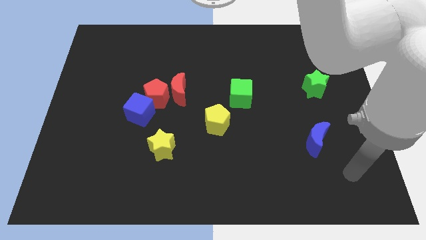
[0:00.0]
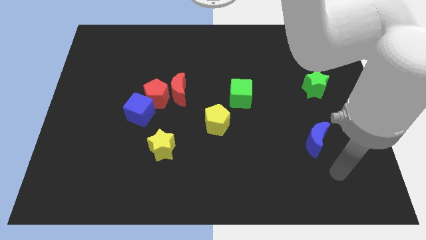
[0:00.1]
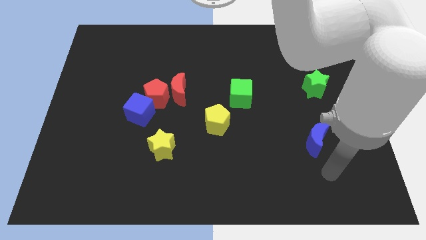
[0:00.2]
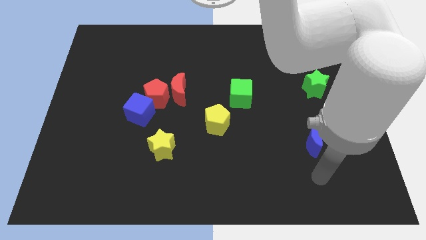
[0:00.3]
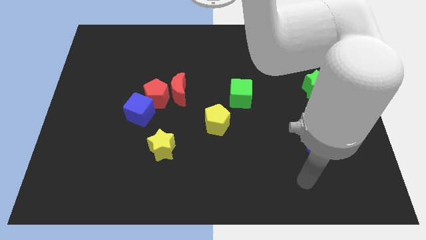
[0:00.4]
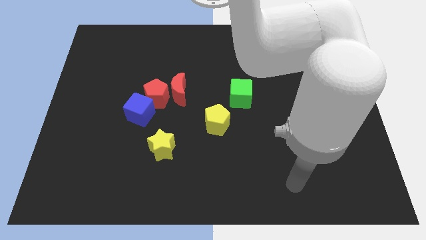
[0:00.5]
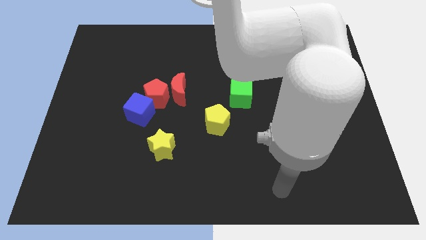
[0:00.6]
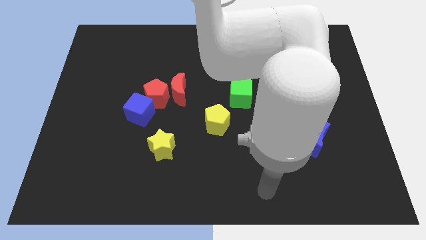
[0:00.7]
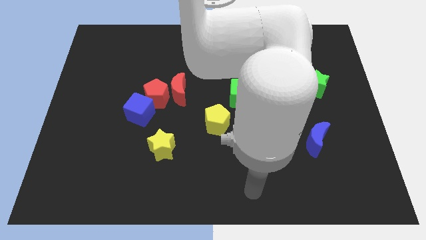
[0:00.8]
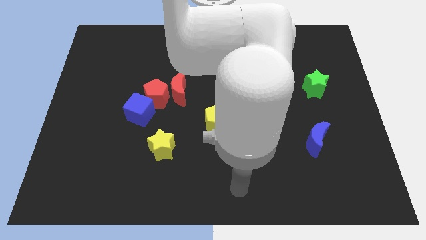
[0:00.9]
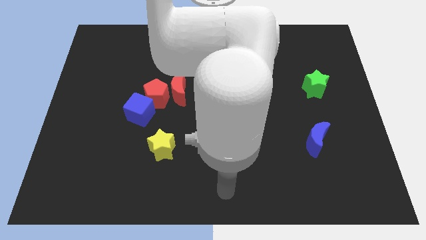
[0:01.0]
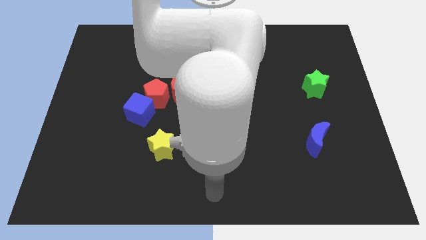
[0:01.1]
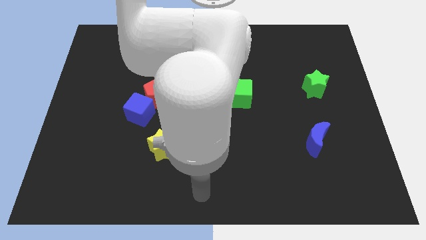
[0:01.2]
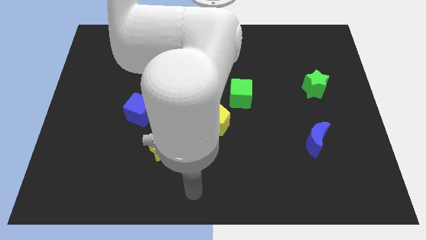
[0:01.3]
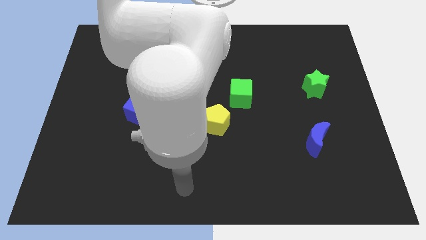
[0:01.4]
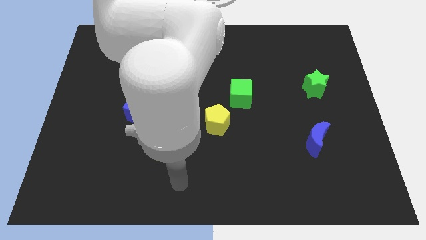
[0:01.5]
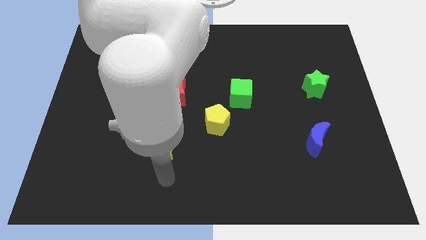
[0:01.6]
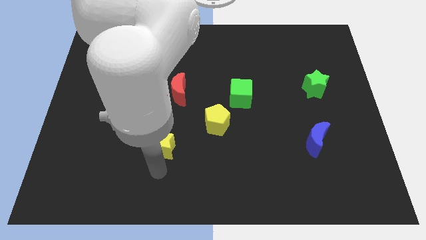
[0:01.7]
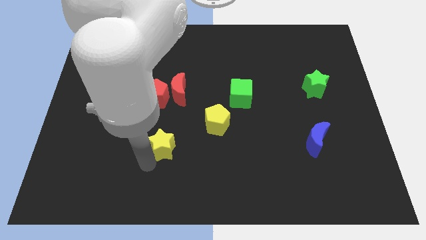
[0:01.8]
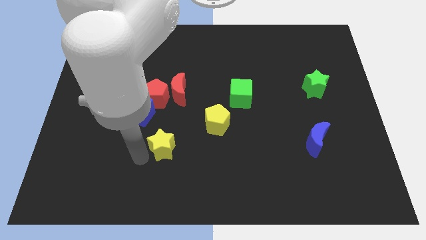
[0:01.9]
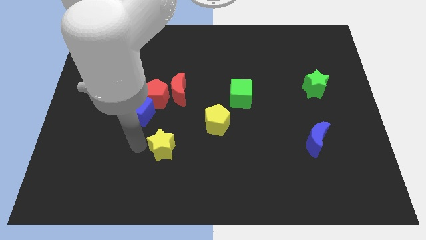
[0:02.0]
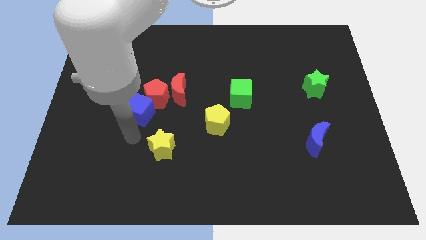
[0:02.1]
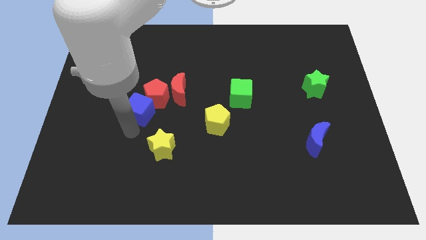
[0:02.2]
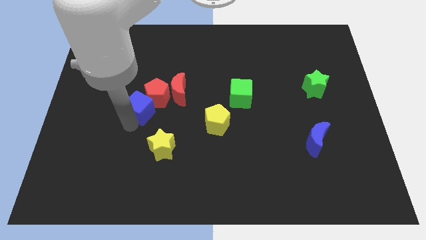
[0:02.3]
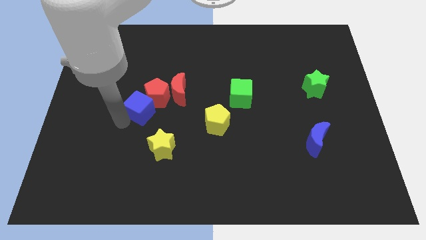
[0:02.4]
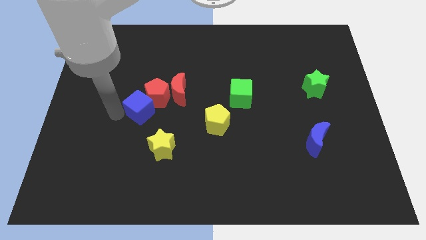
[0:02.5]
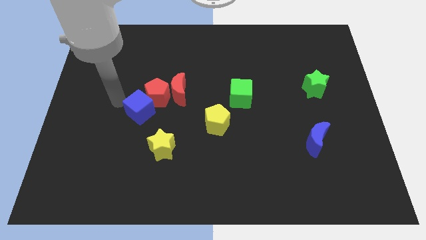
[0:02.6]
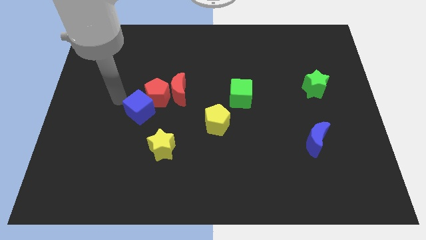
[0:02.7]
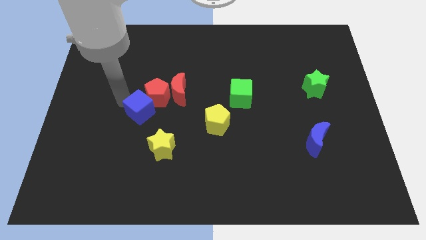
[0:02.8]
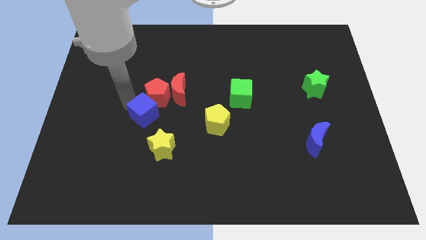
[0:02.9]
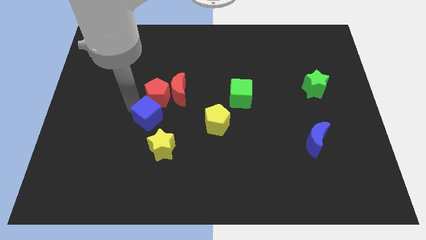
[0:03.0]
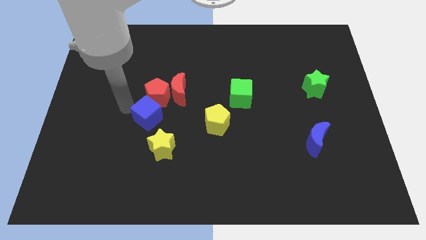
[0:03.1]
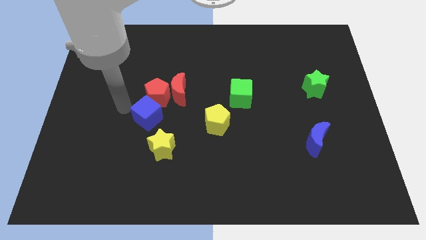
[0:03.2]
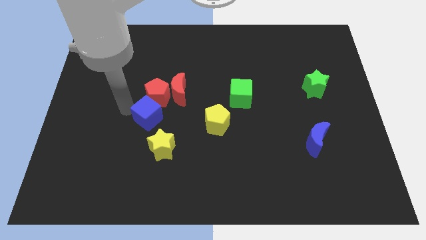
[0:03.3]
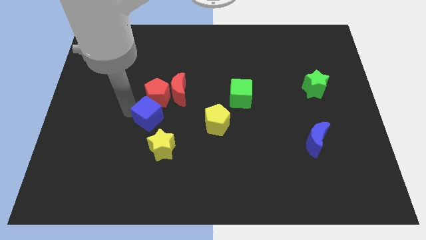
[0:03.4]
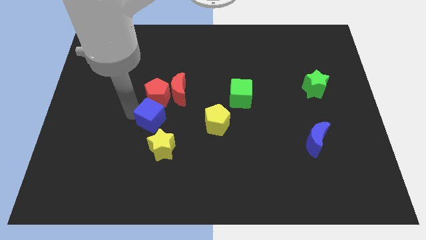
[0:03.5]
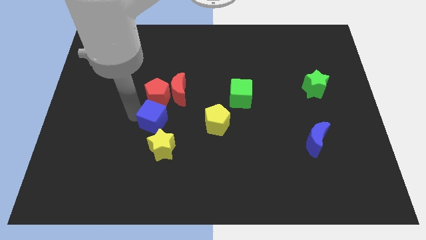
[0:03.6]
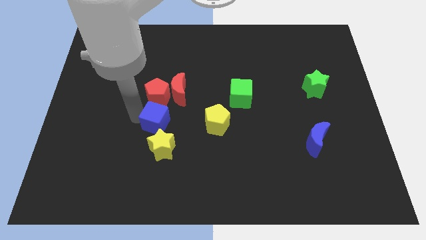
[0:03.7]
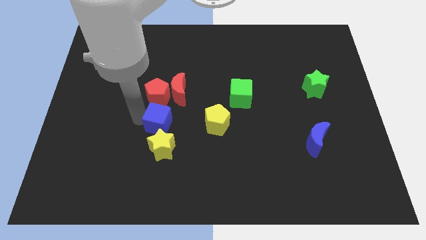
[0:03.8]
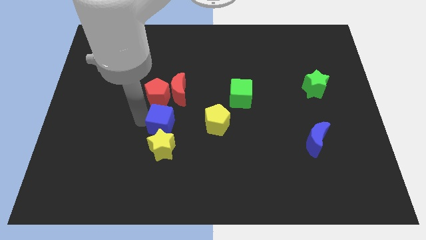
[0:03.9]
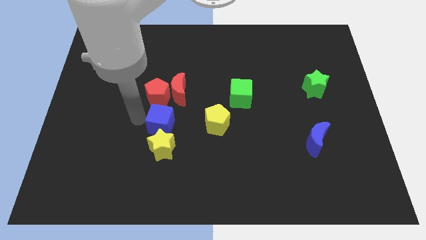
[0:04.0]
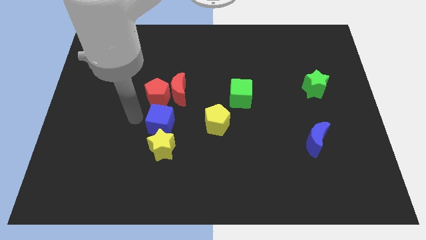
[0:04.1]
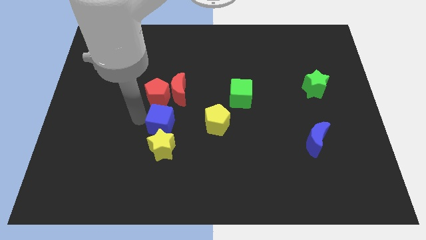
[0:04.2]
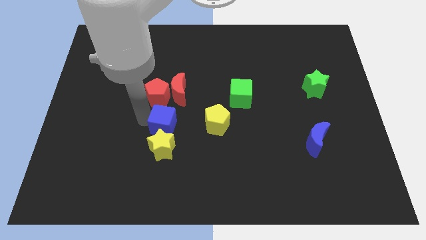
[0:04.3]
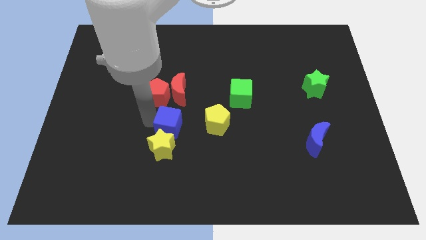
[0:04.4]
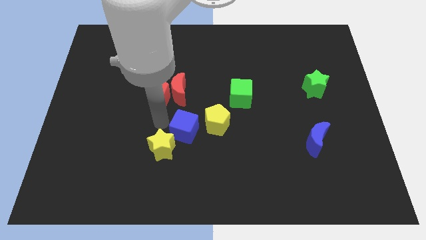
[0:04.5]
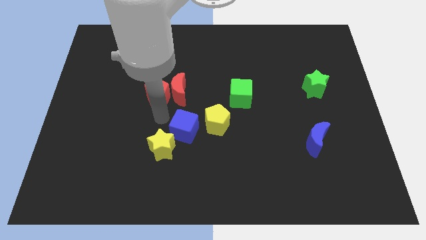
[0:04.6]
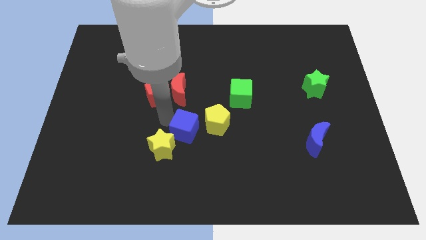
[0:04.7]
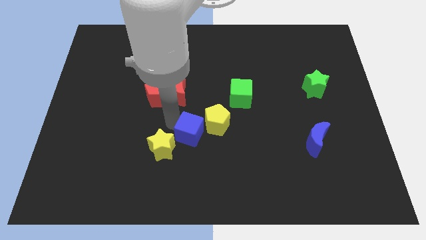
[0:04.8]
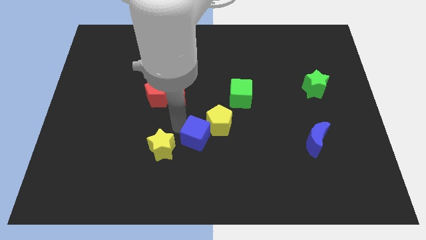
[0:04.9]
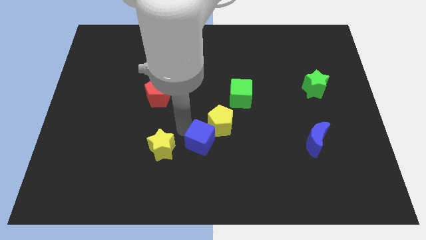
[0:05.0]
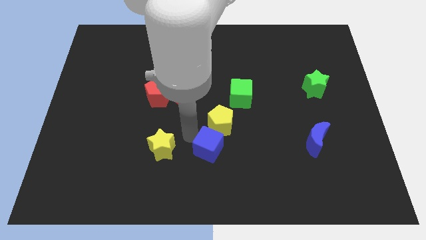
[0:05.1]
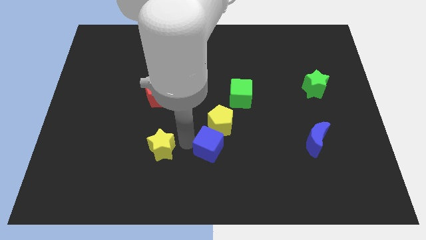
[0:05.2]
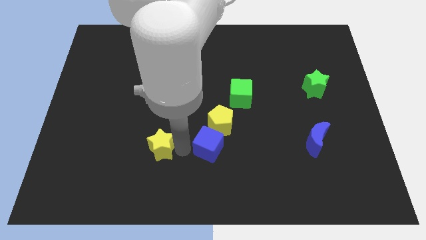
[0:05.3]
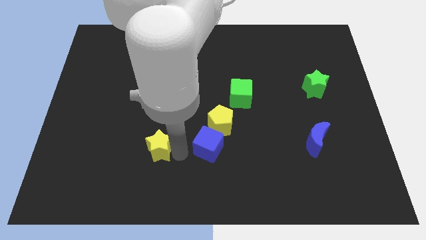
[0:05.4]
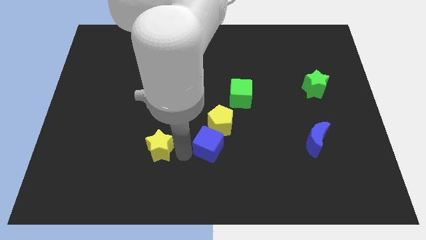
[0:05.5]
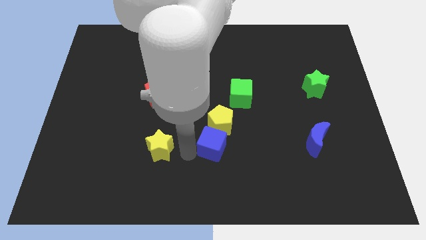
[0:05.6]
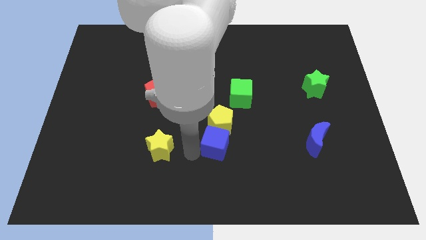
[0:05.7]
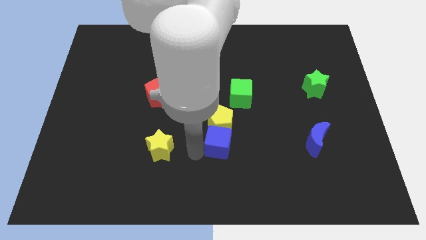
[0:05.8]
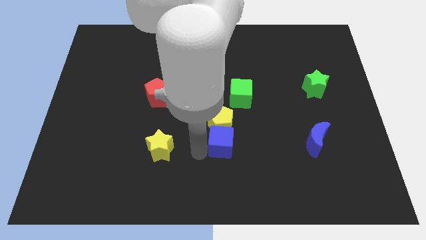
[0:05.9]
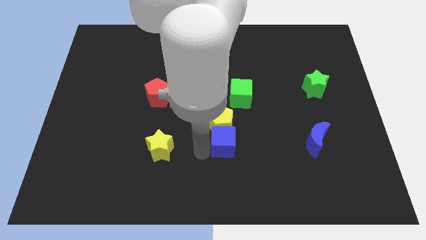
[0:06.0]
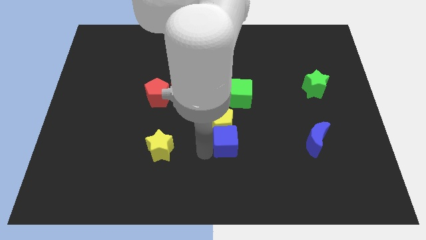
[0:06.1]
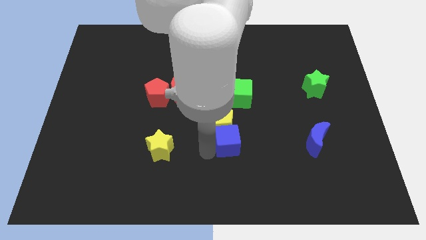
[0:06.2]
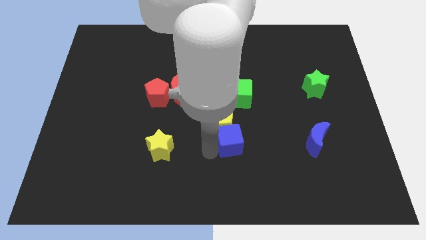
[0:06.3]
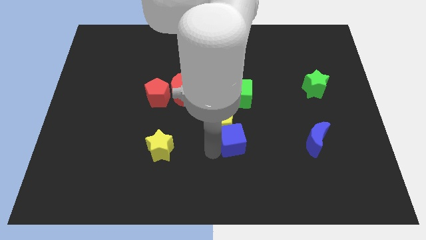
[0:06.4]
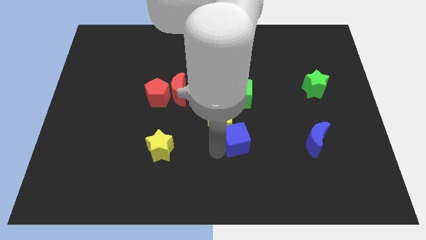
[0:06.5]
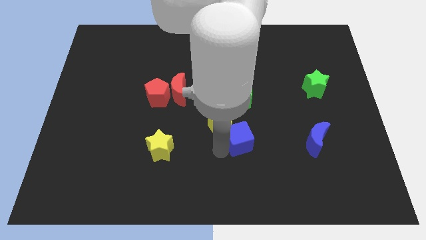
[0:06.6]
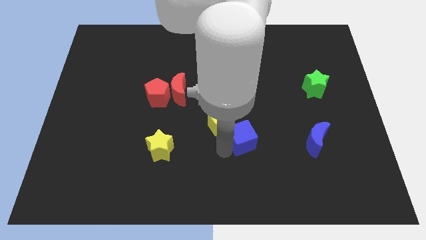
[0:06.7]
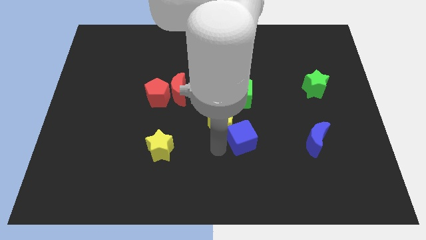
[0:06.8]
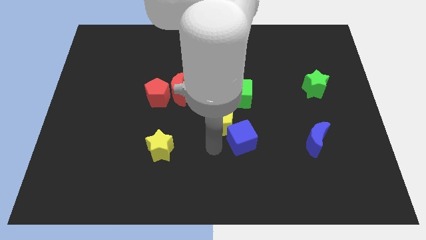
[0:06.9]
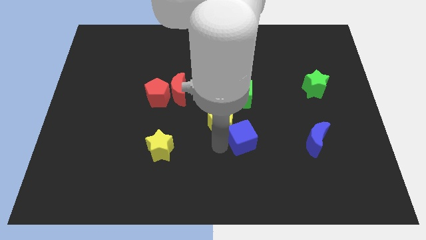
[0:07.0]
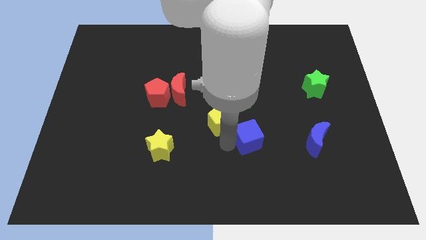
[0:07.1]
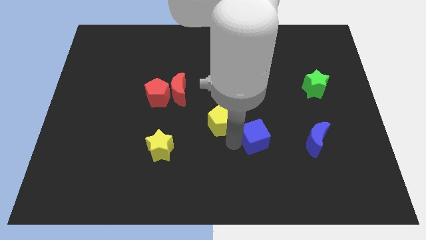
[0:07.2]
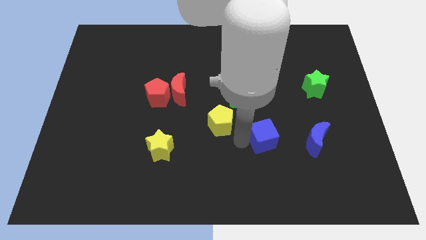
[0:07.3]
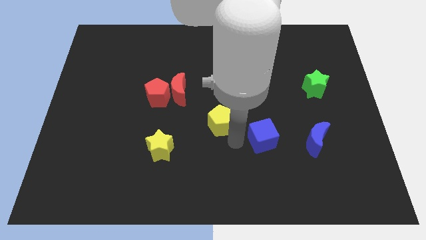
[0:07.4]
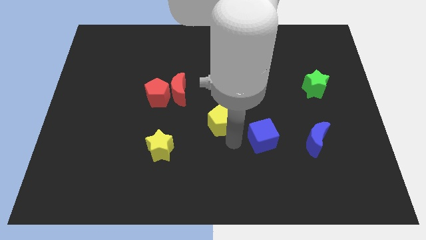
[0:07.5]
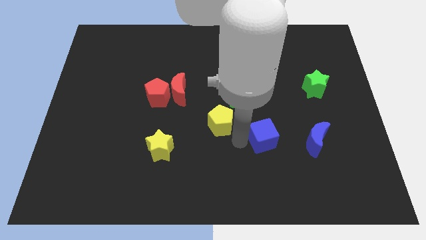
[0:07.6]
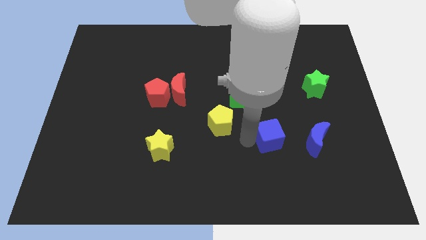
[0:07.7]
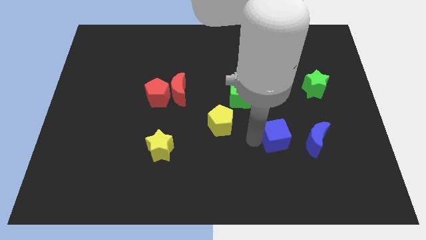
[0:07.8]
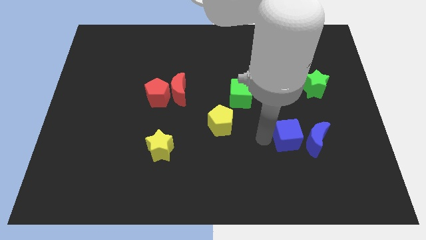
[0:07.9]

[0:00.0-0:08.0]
move the blue cube close to the blue moon
